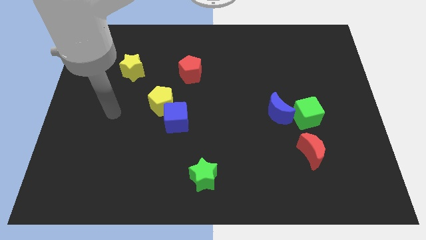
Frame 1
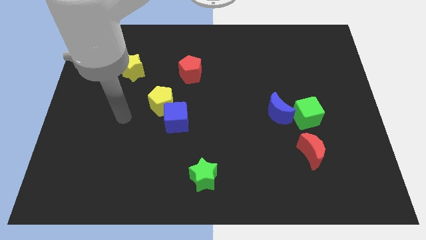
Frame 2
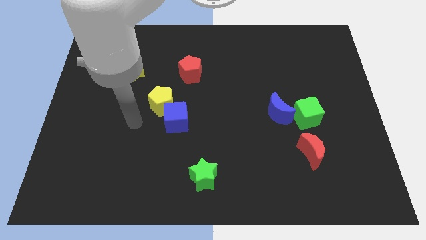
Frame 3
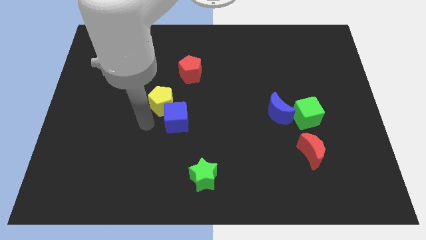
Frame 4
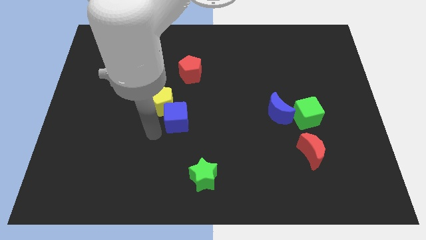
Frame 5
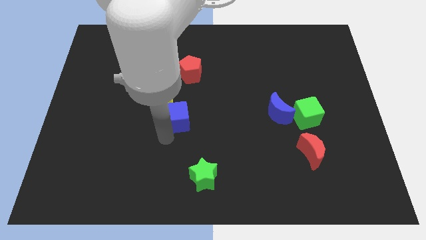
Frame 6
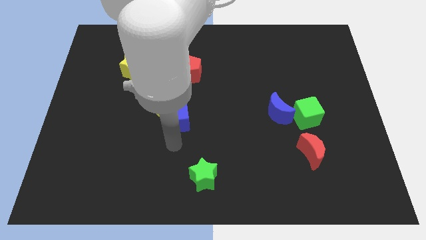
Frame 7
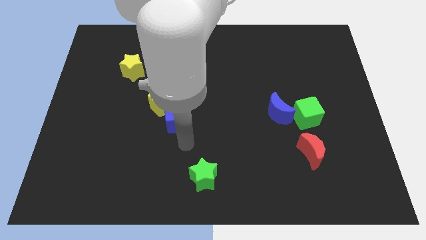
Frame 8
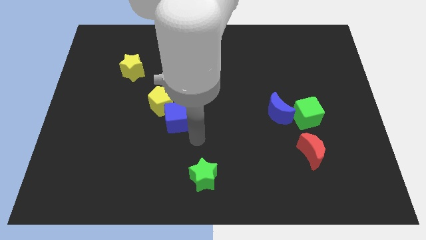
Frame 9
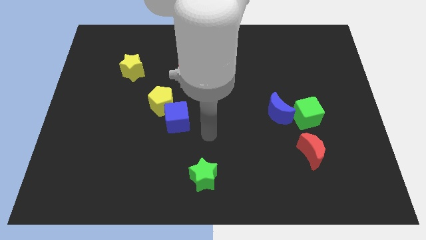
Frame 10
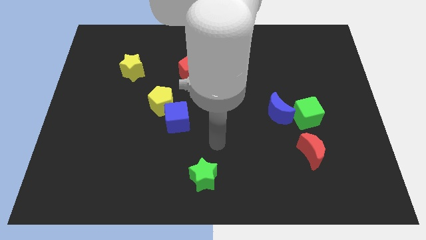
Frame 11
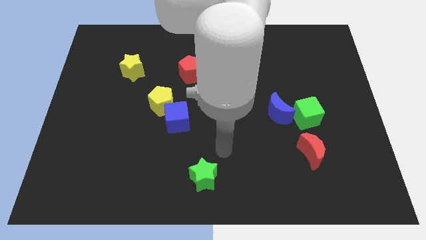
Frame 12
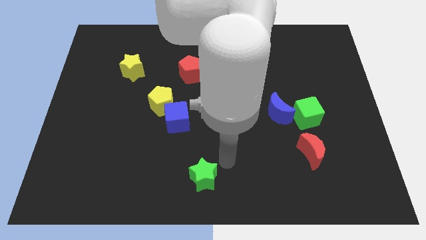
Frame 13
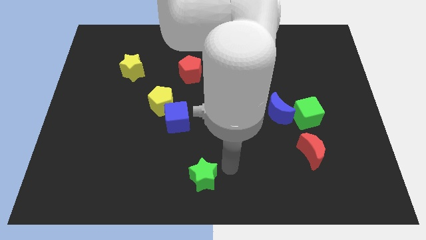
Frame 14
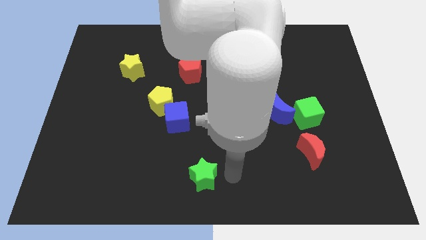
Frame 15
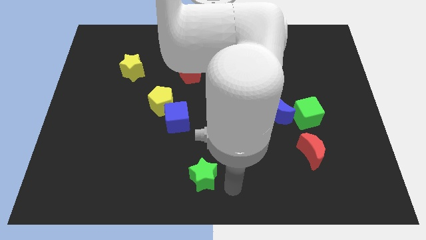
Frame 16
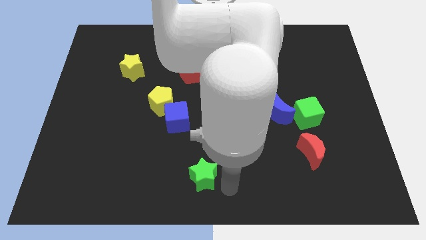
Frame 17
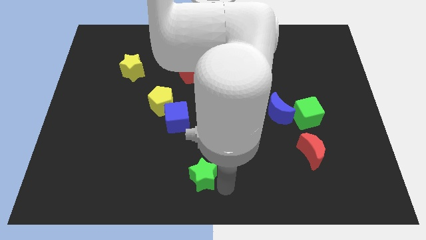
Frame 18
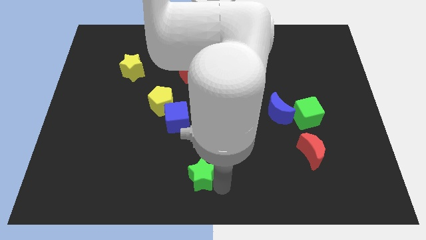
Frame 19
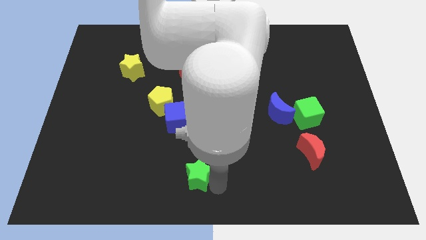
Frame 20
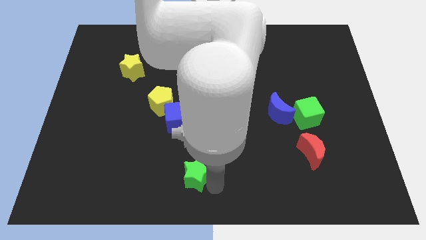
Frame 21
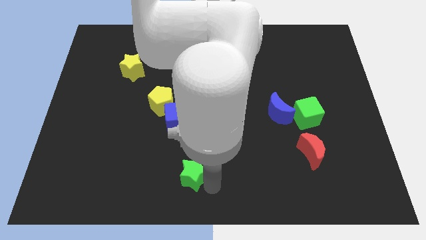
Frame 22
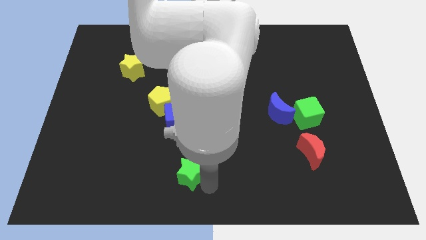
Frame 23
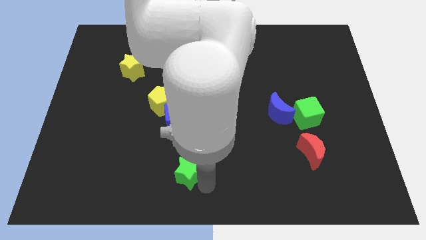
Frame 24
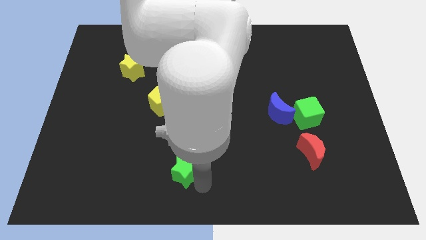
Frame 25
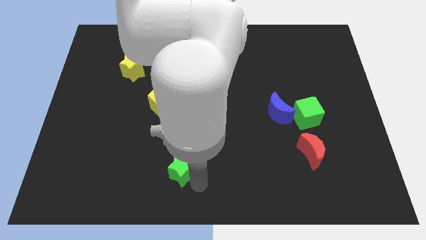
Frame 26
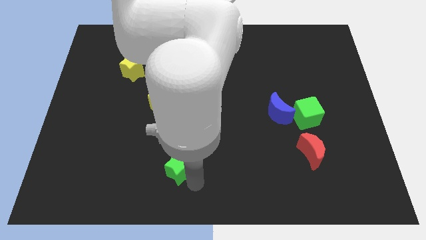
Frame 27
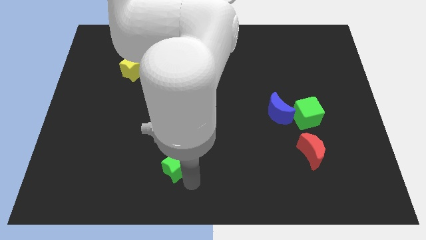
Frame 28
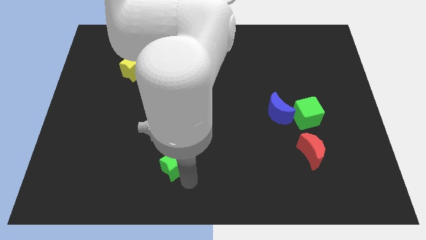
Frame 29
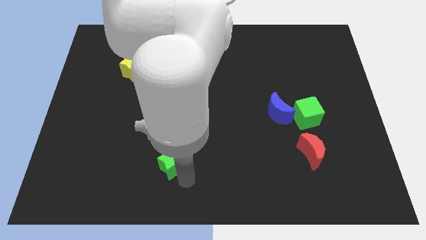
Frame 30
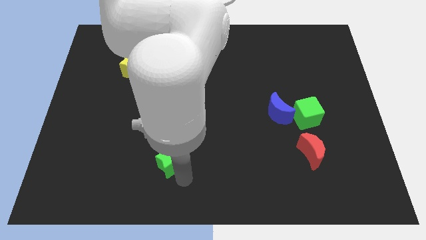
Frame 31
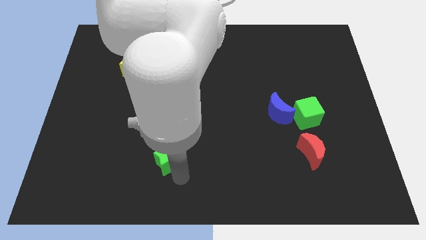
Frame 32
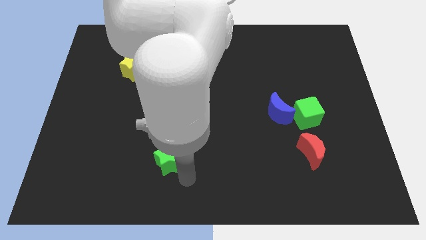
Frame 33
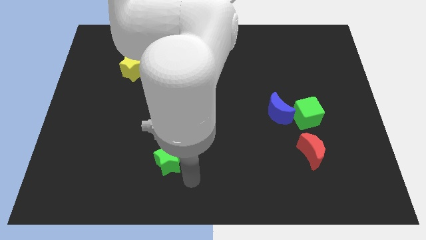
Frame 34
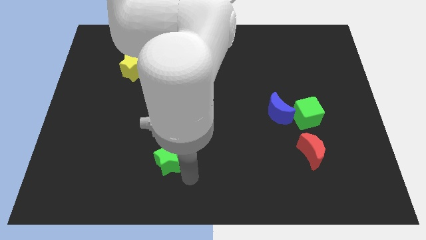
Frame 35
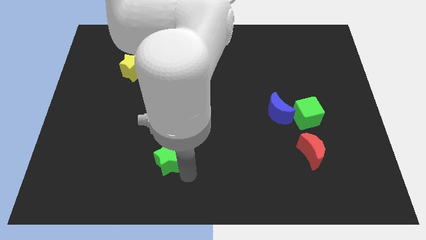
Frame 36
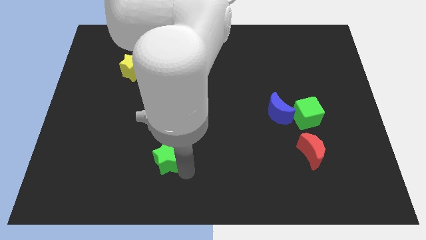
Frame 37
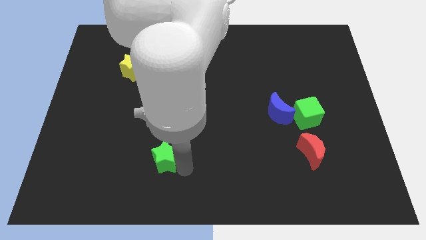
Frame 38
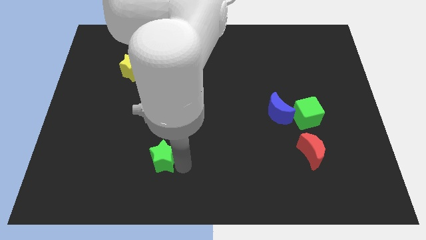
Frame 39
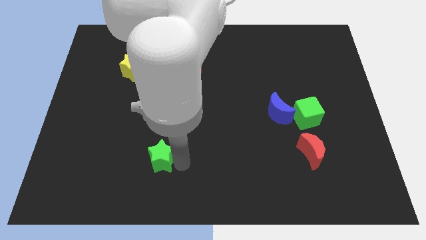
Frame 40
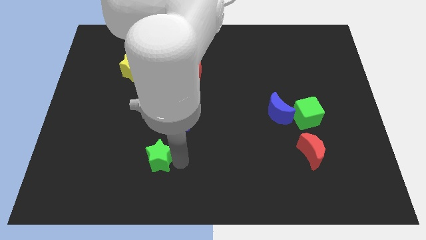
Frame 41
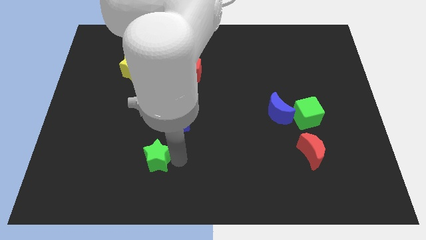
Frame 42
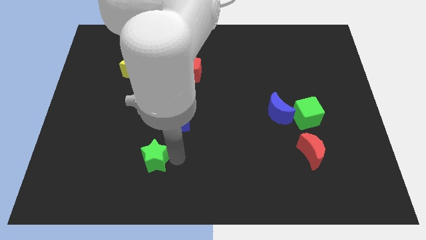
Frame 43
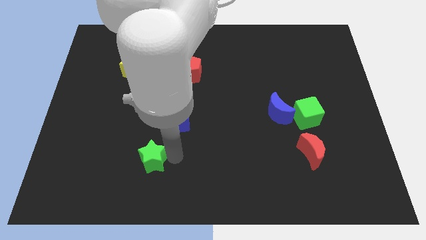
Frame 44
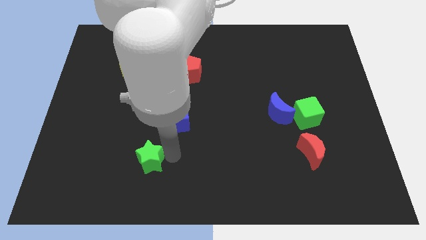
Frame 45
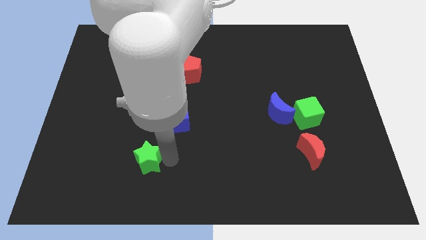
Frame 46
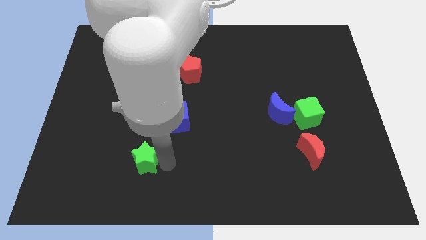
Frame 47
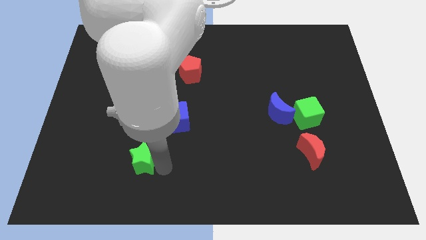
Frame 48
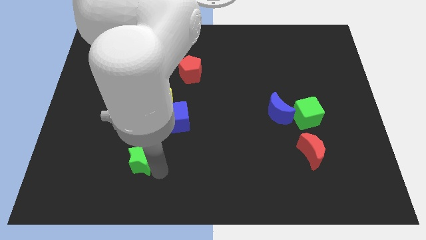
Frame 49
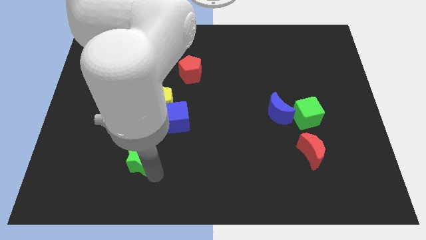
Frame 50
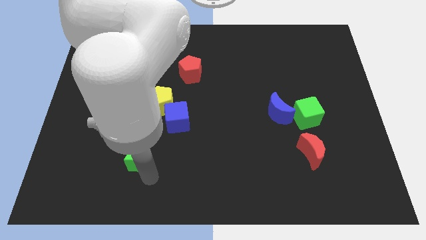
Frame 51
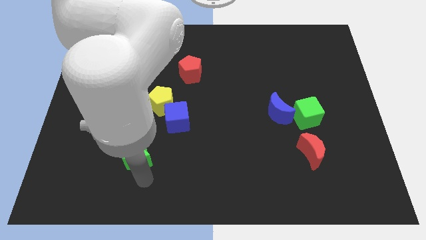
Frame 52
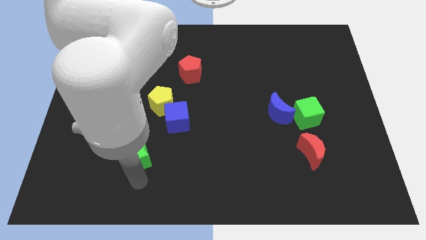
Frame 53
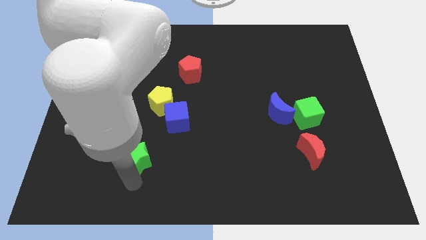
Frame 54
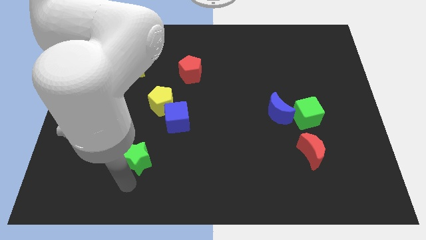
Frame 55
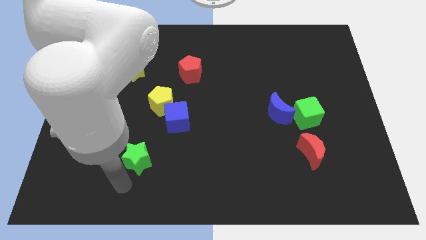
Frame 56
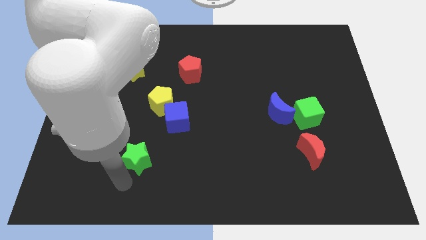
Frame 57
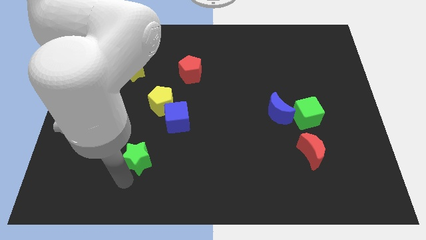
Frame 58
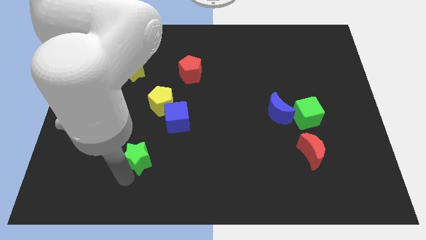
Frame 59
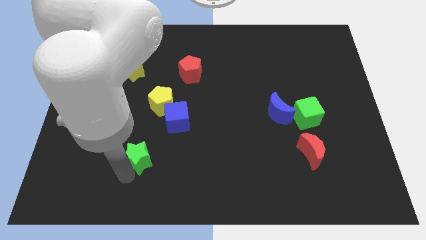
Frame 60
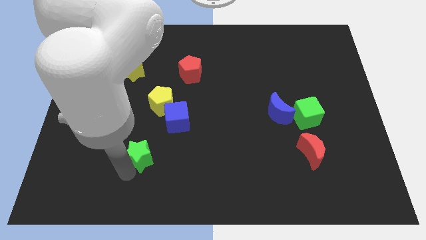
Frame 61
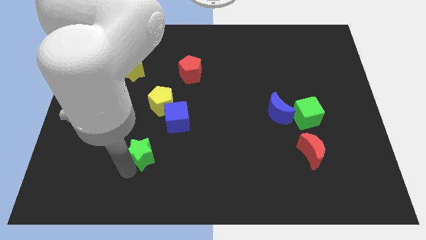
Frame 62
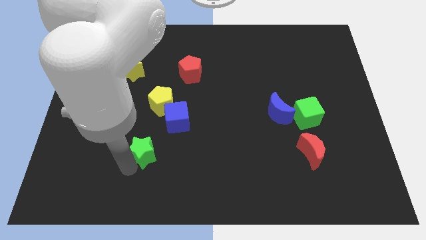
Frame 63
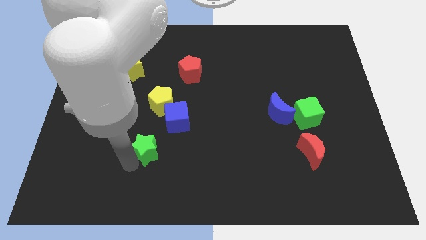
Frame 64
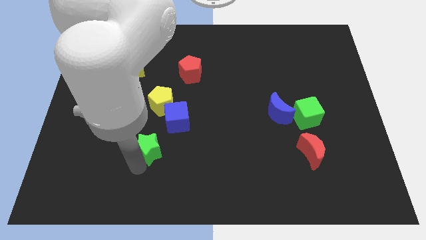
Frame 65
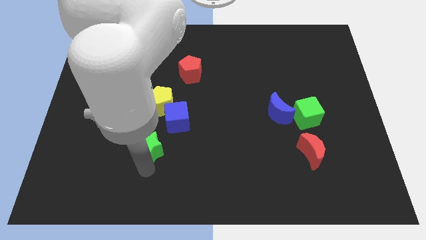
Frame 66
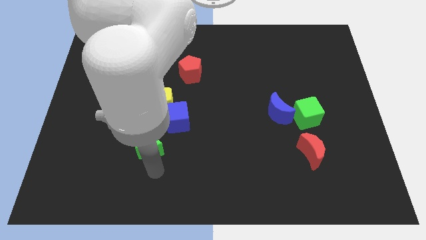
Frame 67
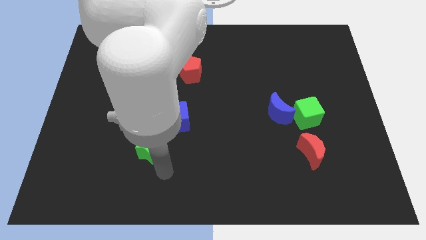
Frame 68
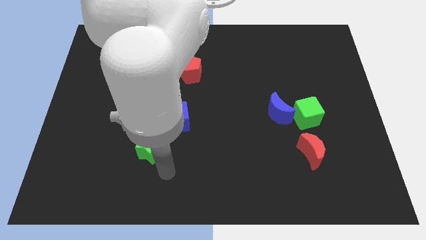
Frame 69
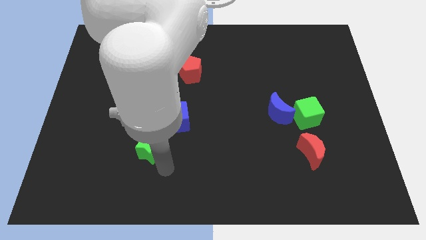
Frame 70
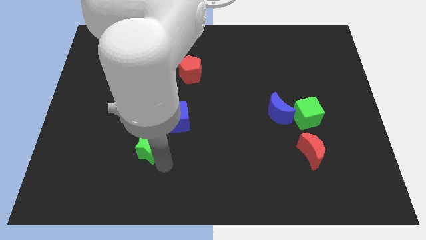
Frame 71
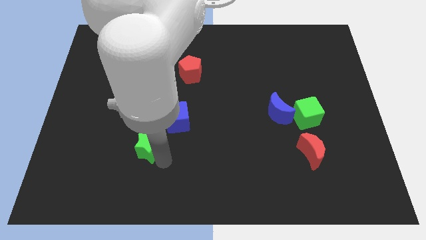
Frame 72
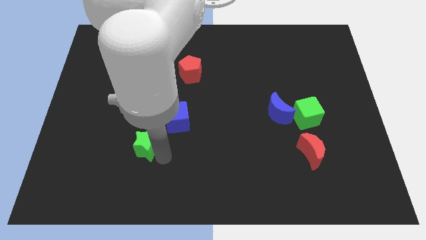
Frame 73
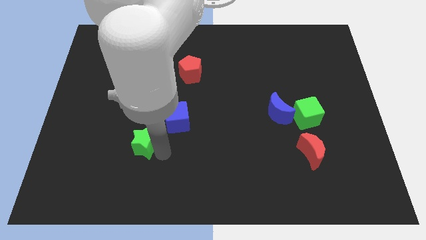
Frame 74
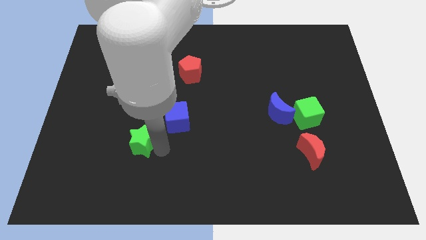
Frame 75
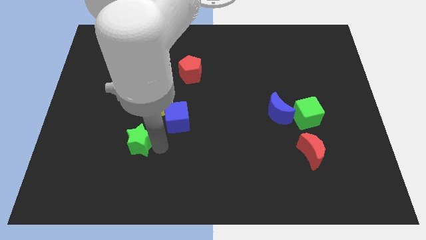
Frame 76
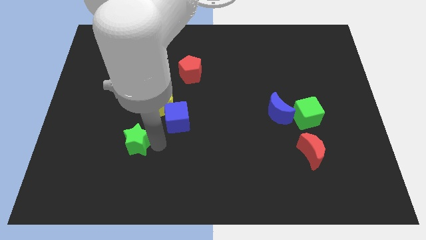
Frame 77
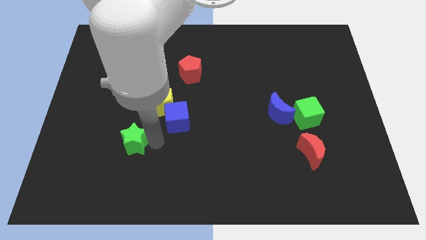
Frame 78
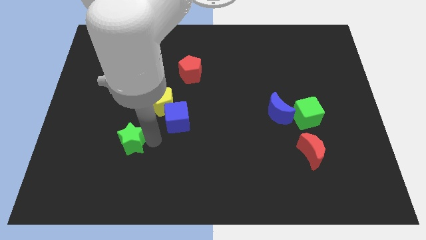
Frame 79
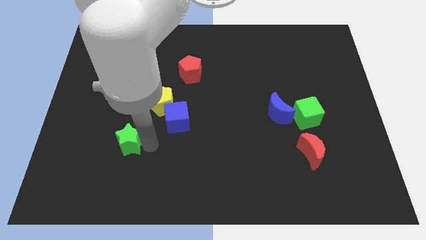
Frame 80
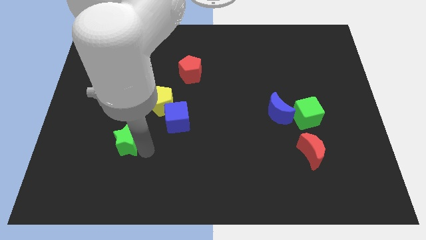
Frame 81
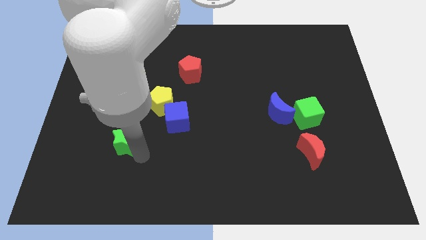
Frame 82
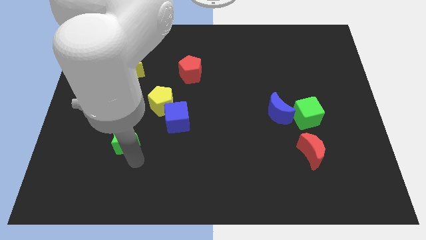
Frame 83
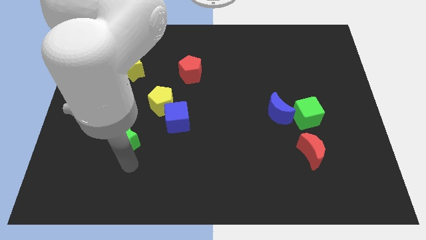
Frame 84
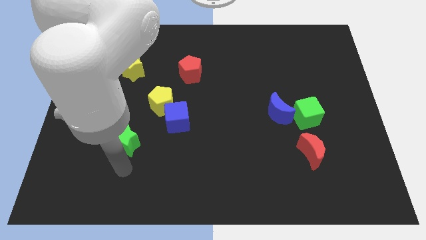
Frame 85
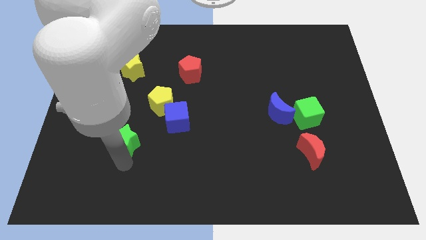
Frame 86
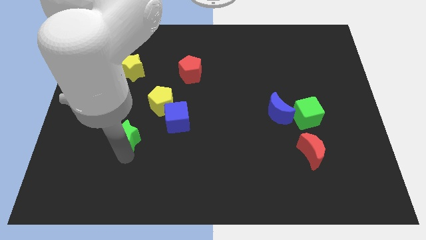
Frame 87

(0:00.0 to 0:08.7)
slide the green star left of the blue cube
